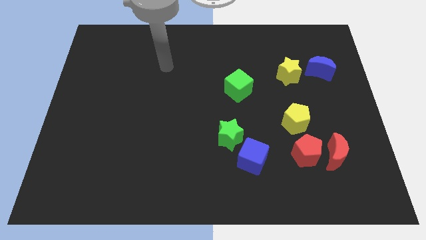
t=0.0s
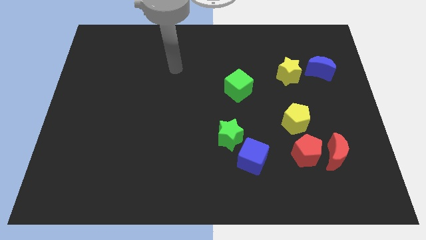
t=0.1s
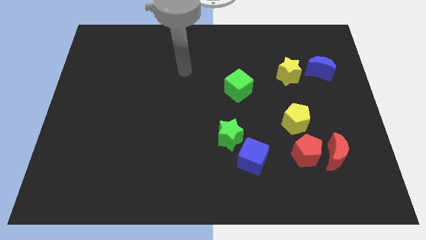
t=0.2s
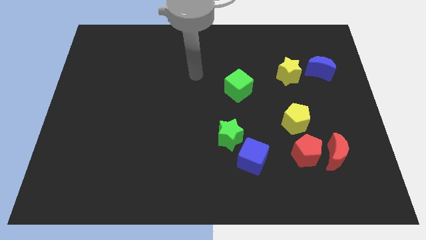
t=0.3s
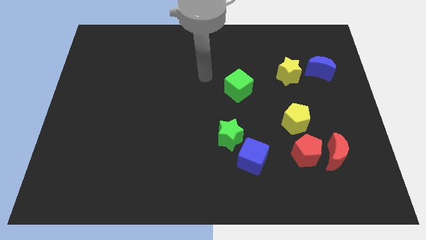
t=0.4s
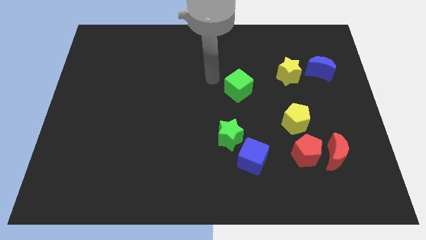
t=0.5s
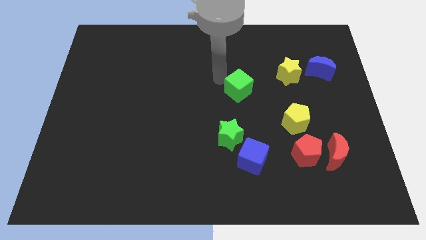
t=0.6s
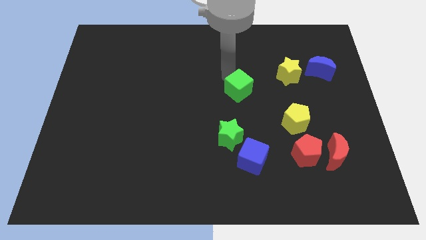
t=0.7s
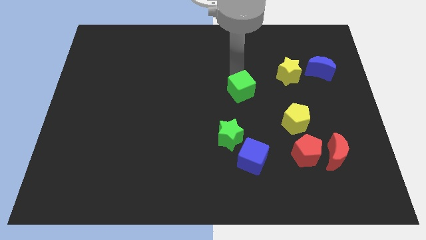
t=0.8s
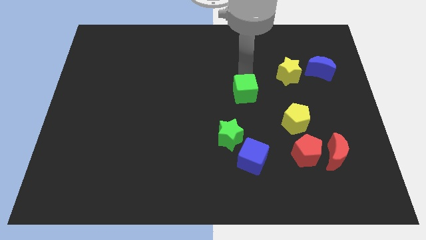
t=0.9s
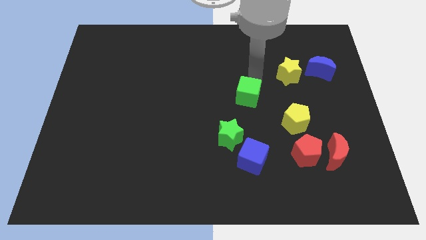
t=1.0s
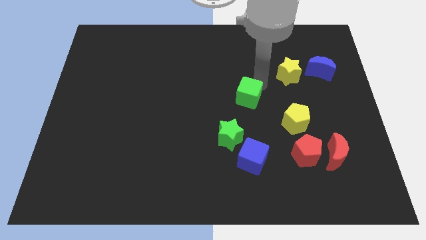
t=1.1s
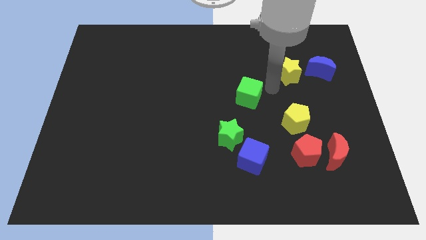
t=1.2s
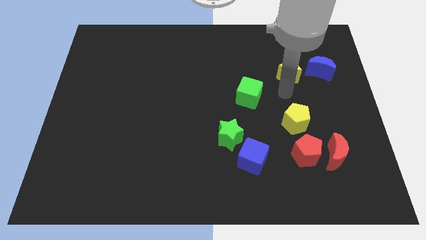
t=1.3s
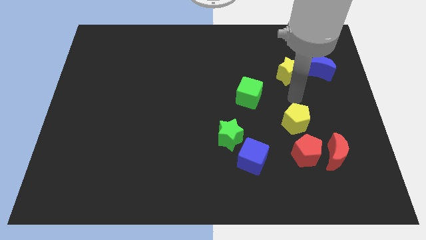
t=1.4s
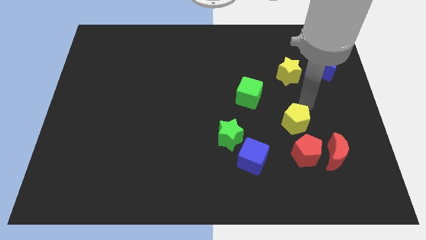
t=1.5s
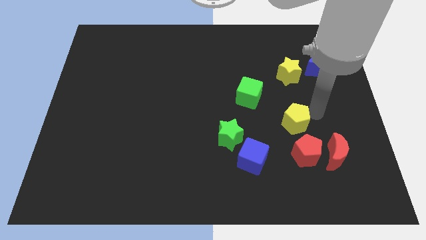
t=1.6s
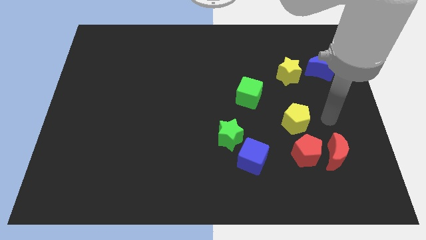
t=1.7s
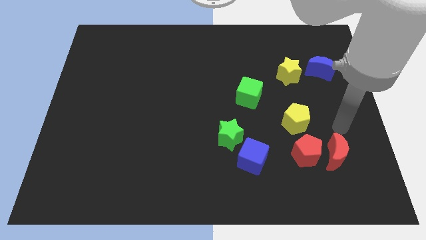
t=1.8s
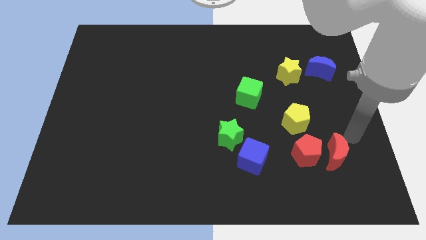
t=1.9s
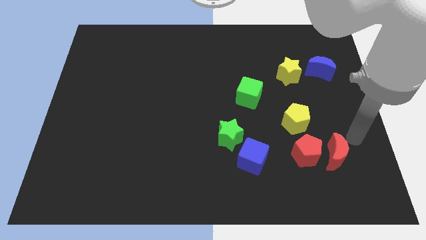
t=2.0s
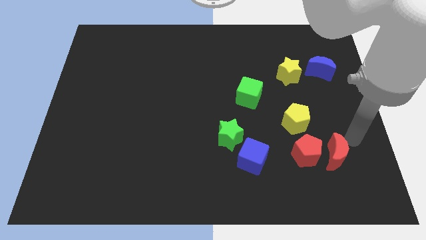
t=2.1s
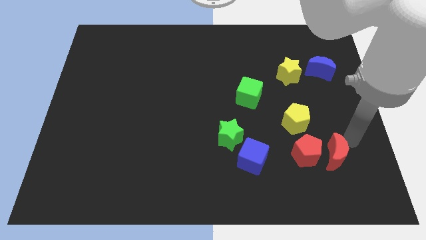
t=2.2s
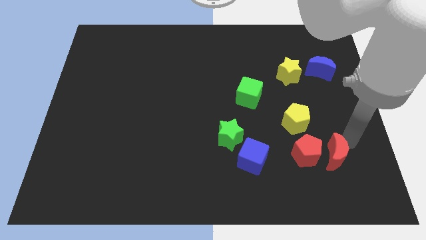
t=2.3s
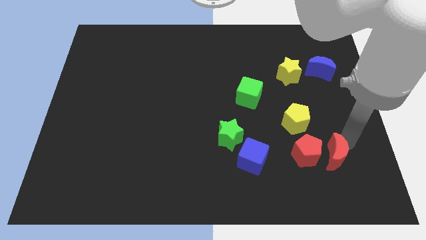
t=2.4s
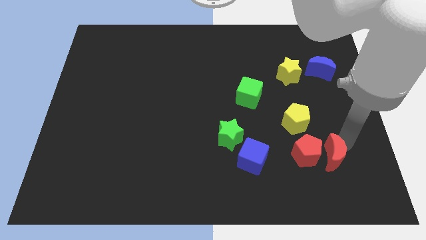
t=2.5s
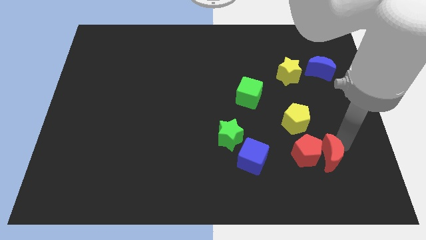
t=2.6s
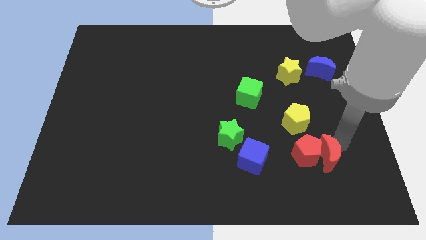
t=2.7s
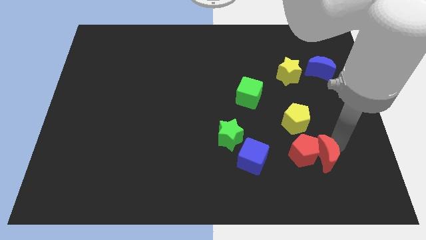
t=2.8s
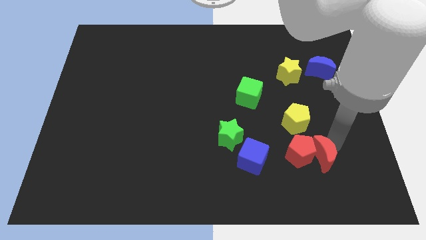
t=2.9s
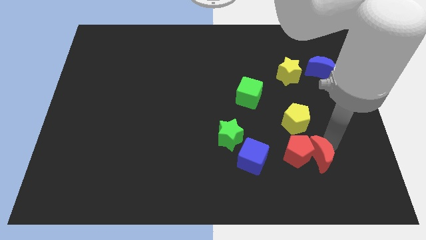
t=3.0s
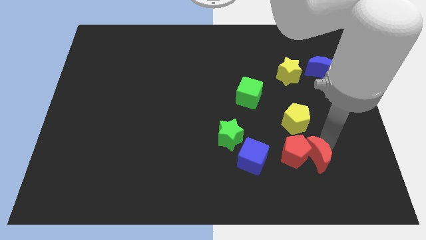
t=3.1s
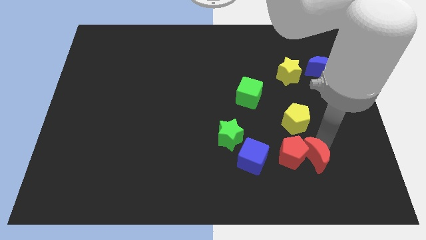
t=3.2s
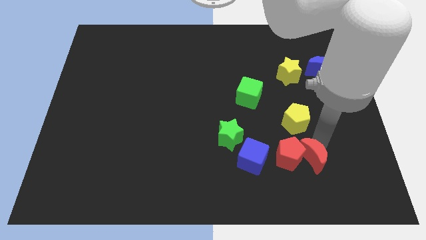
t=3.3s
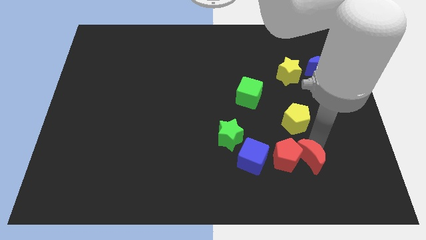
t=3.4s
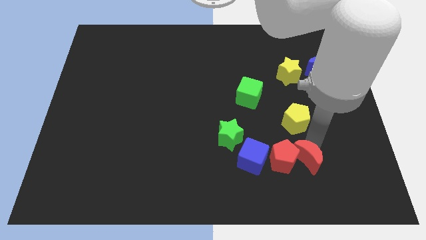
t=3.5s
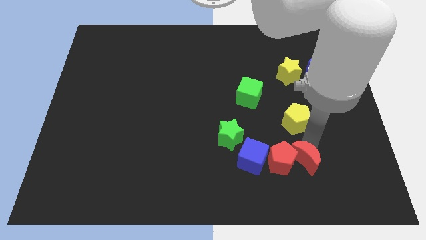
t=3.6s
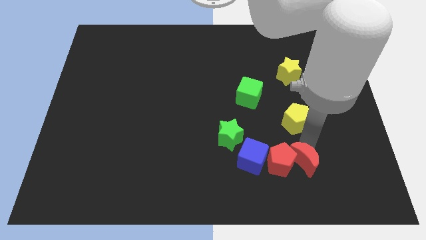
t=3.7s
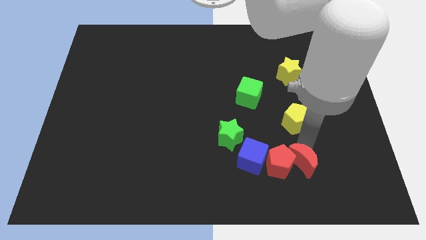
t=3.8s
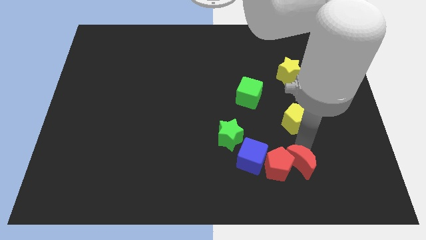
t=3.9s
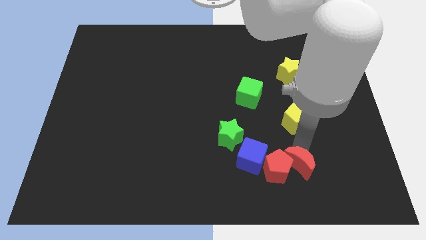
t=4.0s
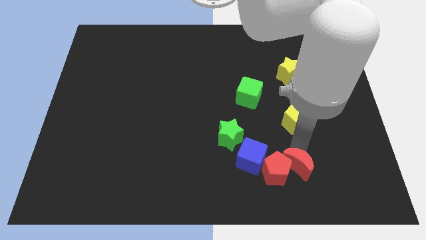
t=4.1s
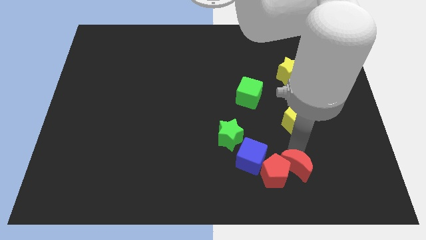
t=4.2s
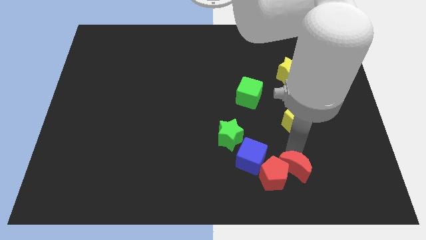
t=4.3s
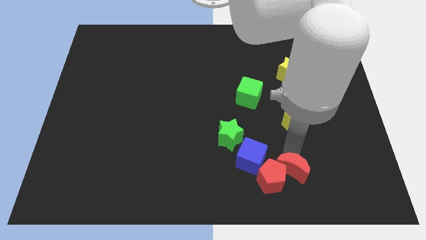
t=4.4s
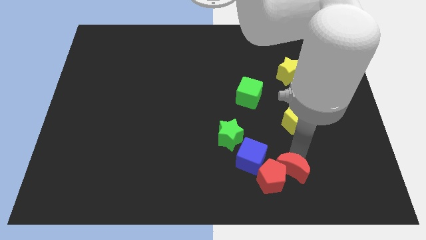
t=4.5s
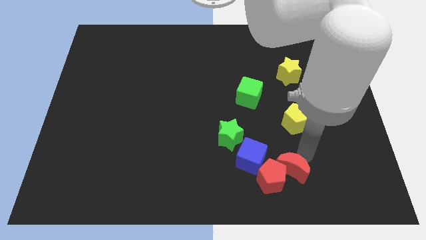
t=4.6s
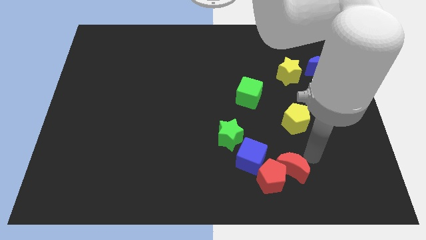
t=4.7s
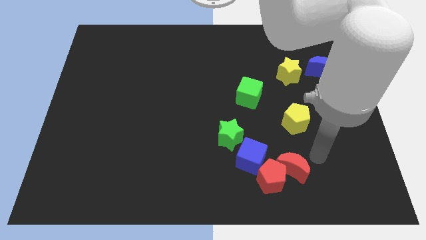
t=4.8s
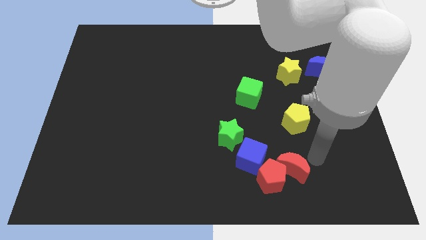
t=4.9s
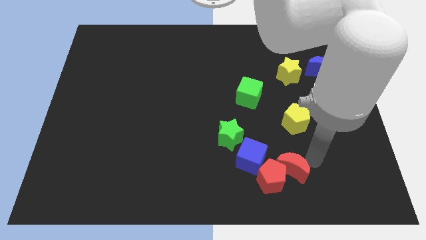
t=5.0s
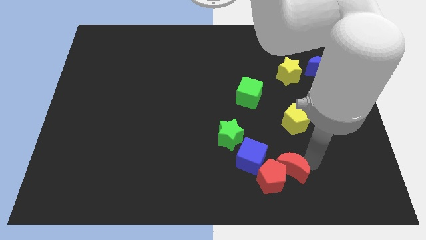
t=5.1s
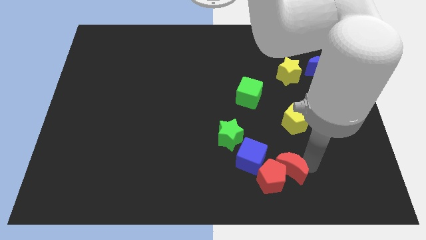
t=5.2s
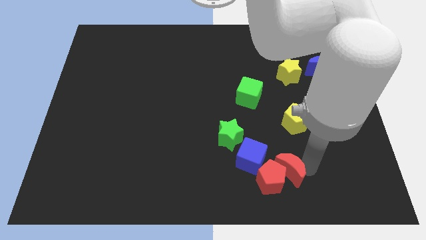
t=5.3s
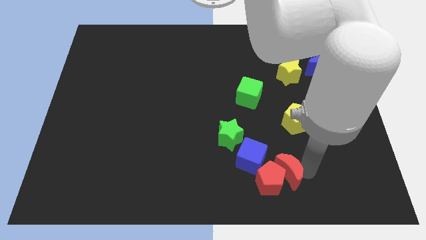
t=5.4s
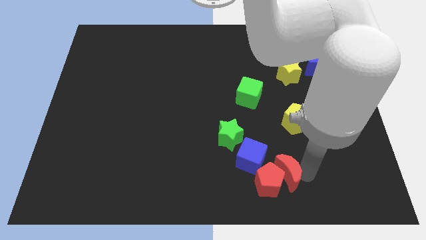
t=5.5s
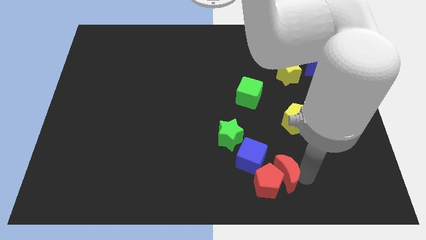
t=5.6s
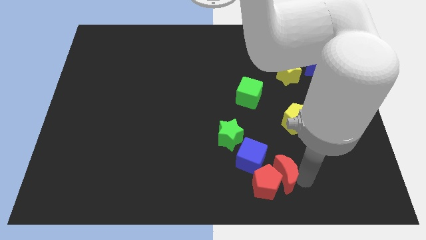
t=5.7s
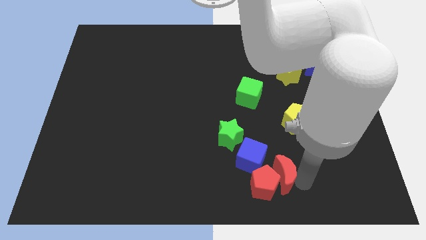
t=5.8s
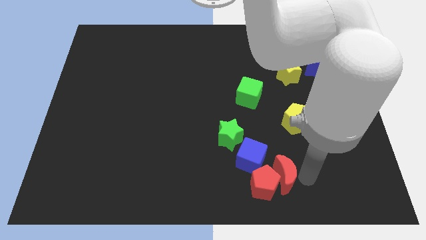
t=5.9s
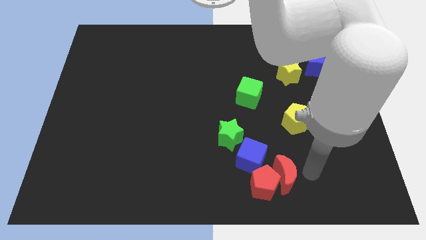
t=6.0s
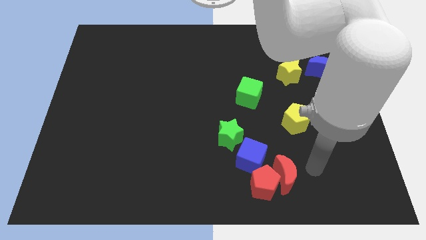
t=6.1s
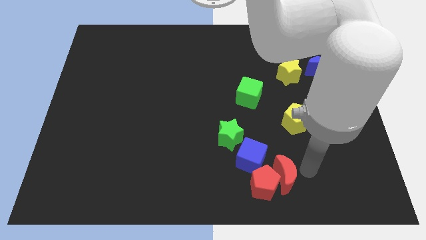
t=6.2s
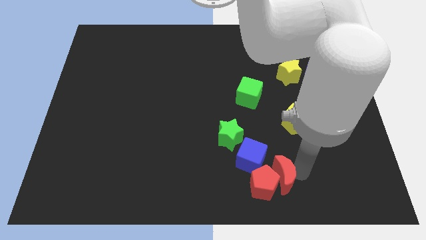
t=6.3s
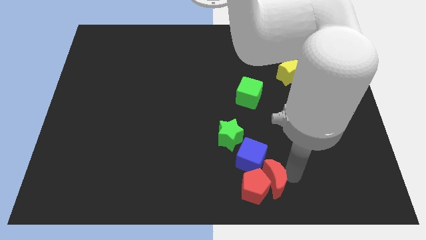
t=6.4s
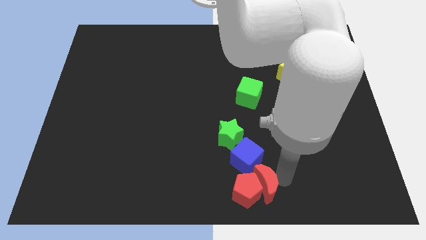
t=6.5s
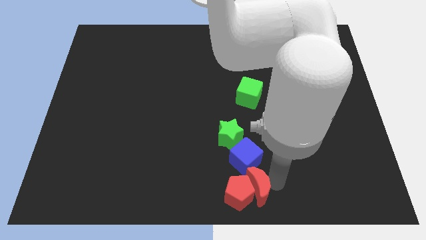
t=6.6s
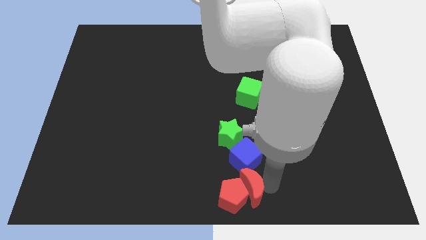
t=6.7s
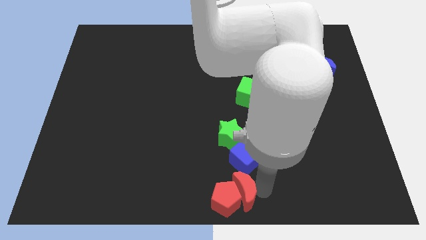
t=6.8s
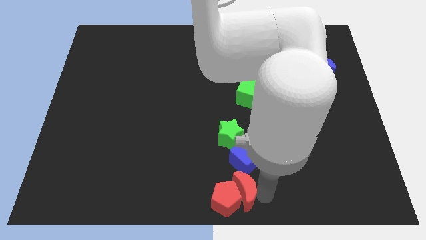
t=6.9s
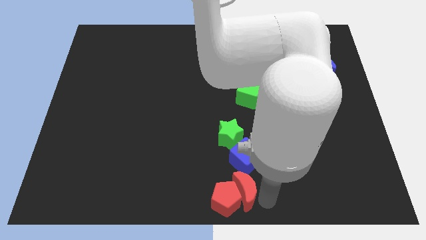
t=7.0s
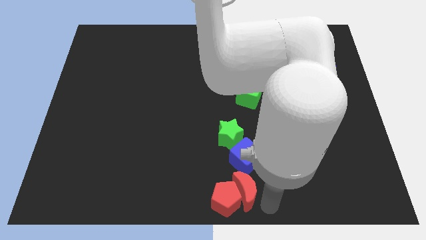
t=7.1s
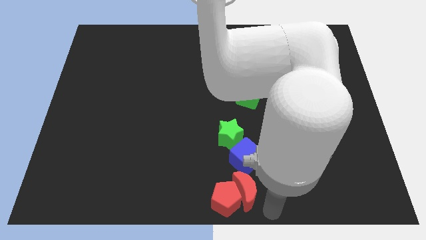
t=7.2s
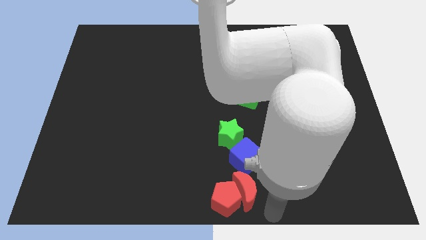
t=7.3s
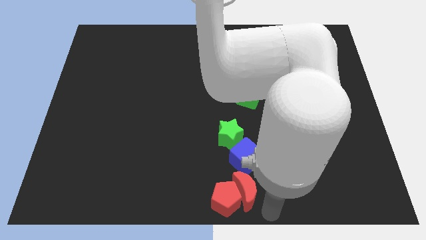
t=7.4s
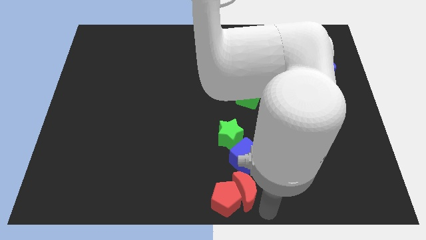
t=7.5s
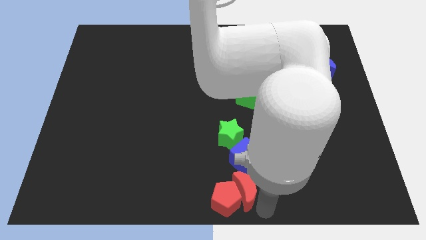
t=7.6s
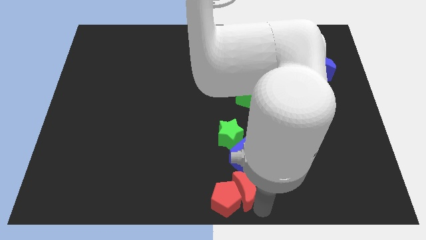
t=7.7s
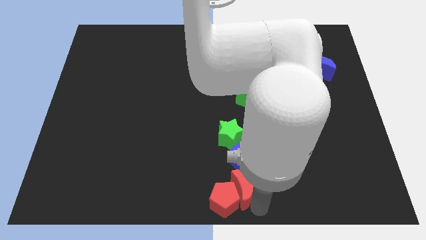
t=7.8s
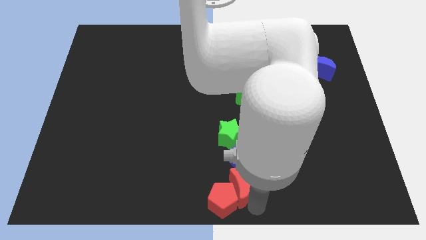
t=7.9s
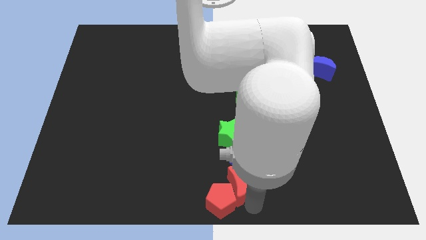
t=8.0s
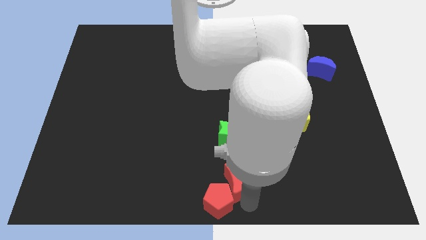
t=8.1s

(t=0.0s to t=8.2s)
slide the red moon left
